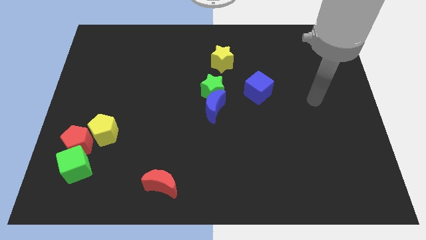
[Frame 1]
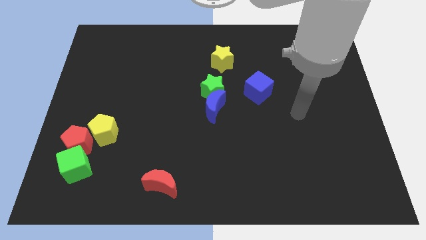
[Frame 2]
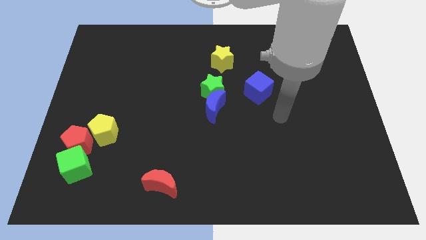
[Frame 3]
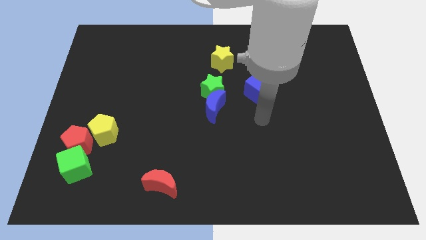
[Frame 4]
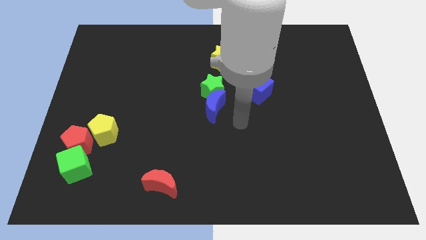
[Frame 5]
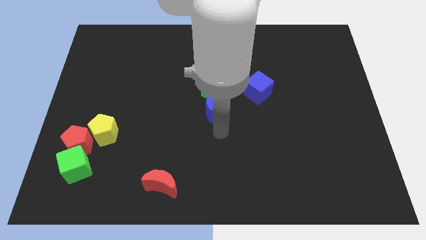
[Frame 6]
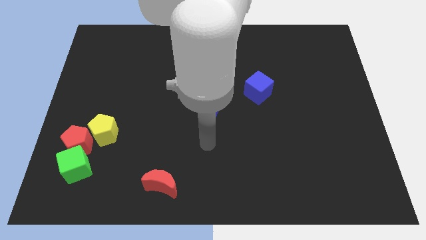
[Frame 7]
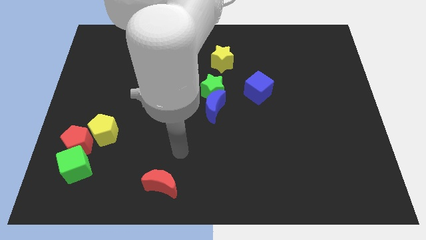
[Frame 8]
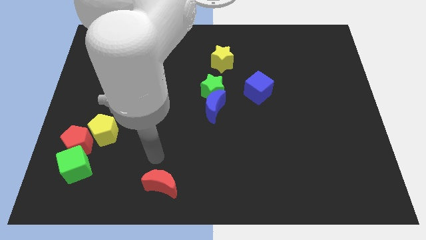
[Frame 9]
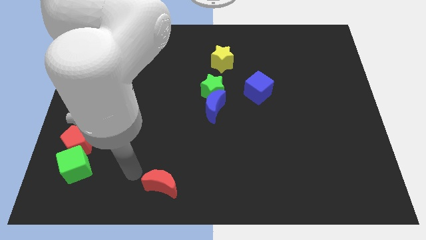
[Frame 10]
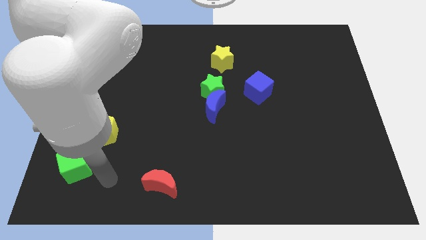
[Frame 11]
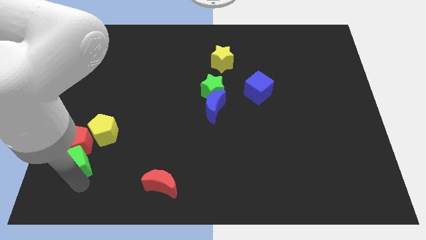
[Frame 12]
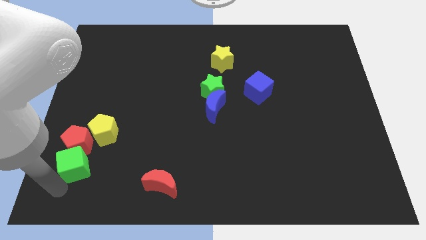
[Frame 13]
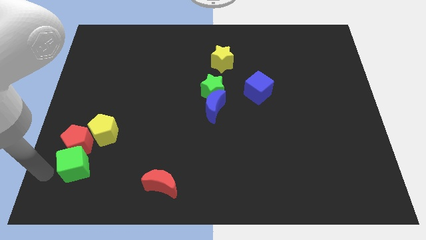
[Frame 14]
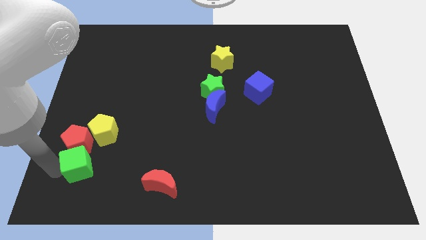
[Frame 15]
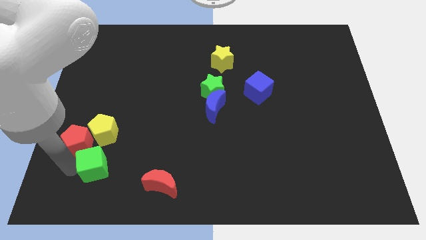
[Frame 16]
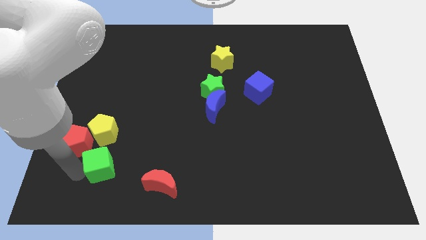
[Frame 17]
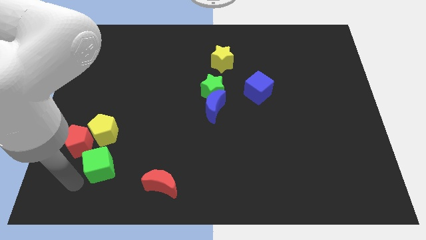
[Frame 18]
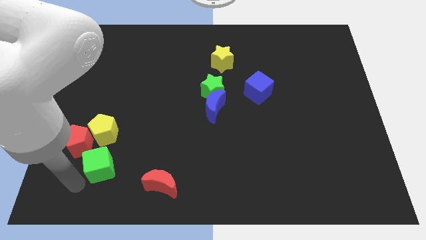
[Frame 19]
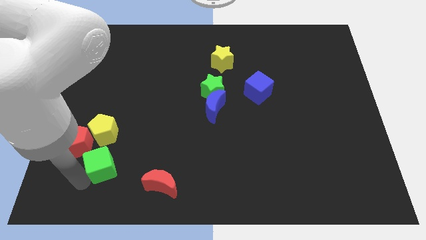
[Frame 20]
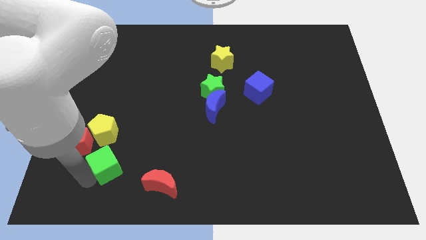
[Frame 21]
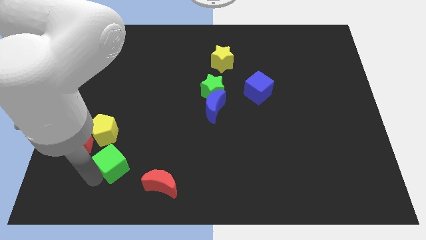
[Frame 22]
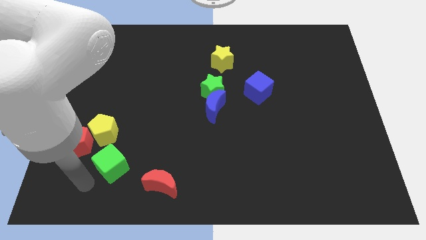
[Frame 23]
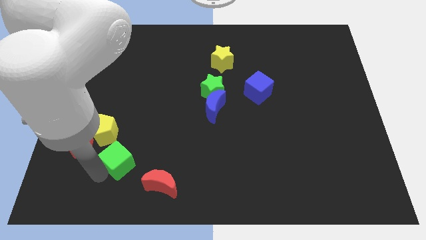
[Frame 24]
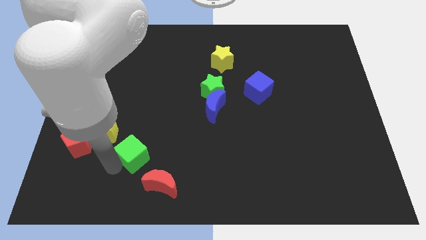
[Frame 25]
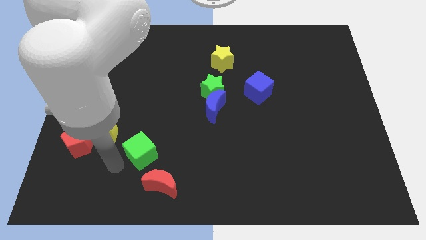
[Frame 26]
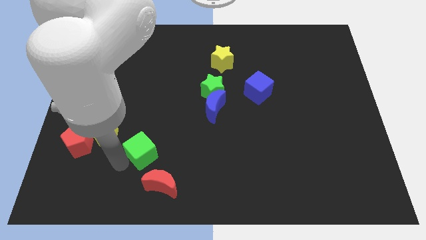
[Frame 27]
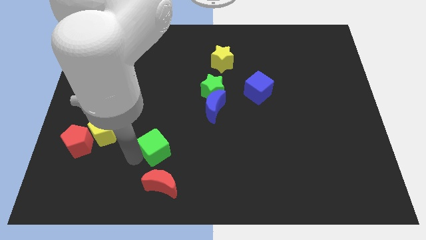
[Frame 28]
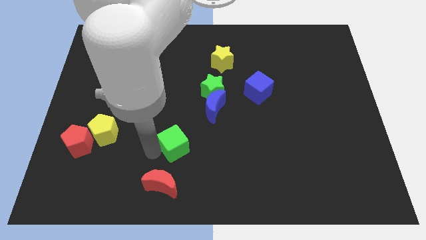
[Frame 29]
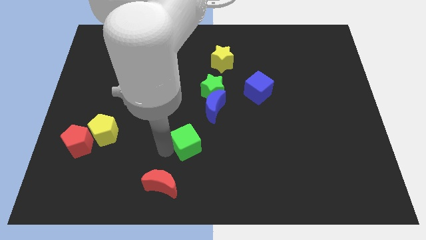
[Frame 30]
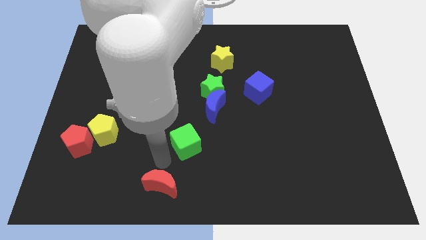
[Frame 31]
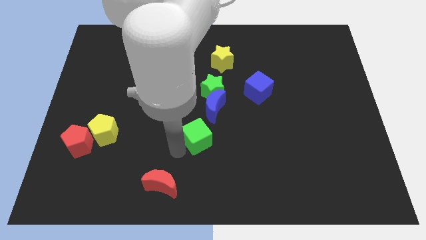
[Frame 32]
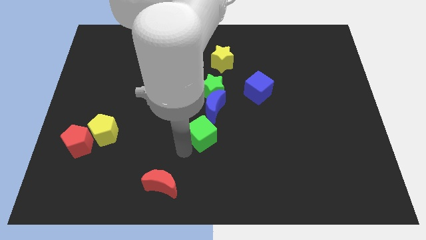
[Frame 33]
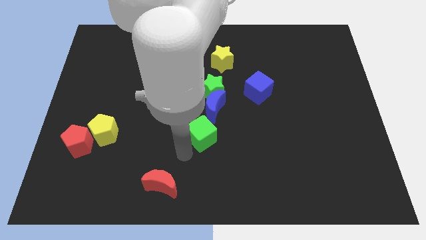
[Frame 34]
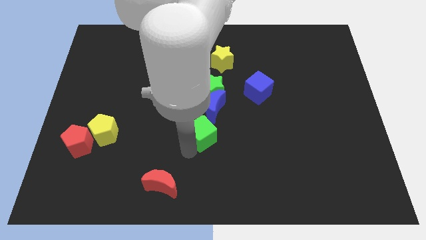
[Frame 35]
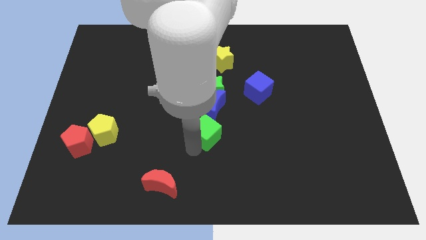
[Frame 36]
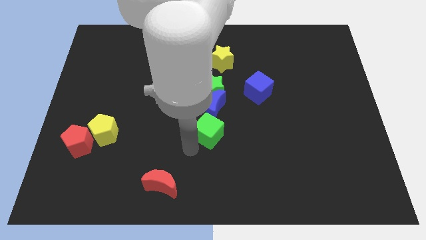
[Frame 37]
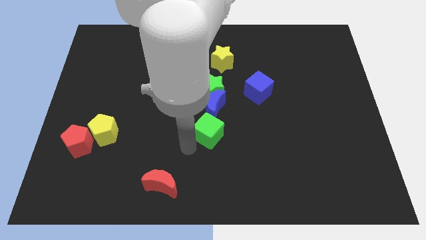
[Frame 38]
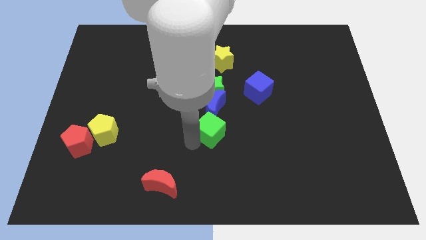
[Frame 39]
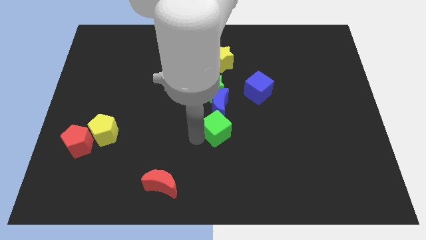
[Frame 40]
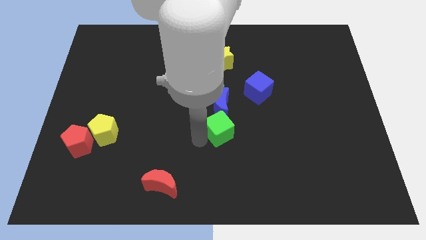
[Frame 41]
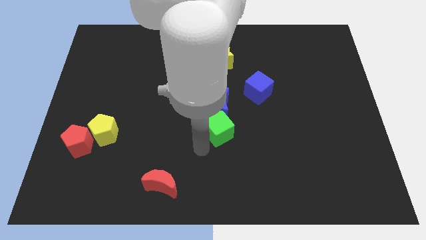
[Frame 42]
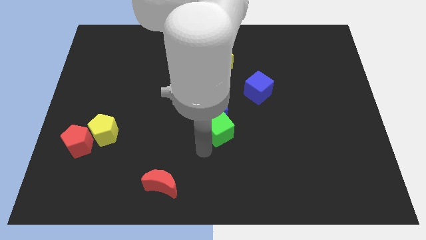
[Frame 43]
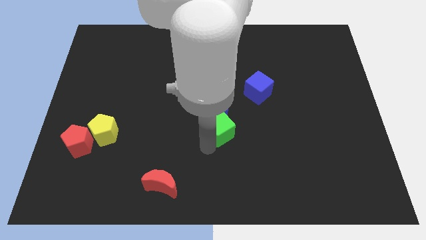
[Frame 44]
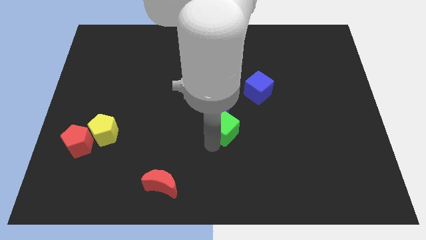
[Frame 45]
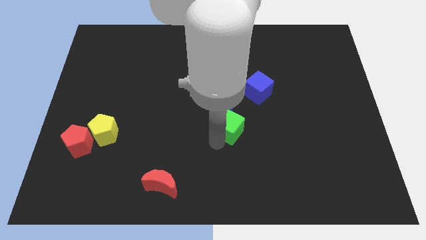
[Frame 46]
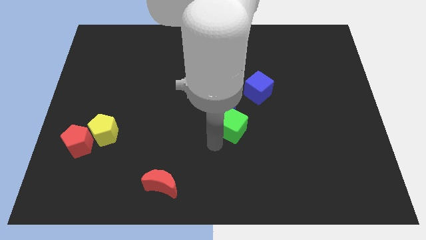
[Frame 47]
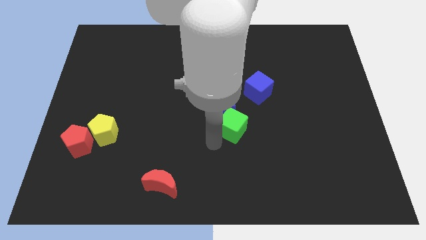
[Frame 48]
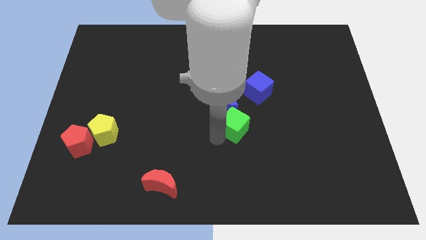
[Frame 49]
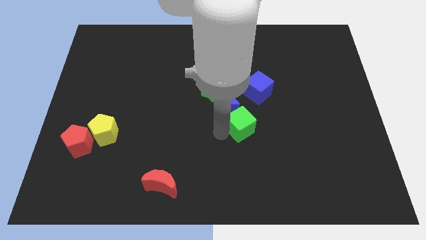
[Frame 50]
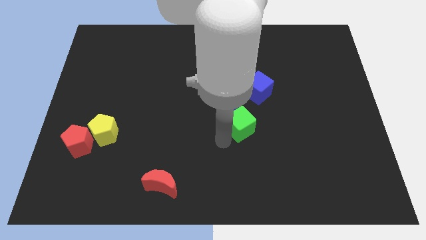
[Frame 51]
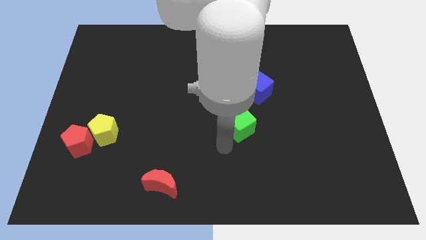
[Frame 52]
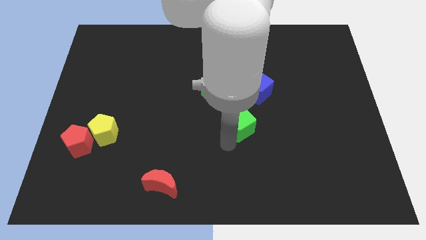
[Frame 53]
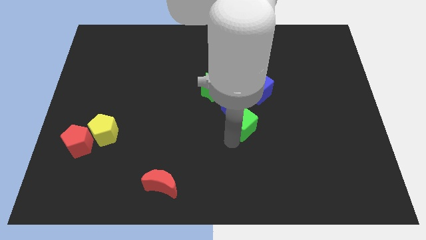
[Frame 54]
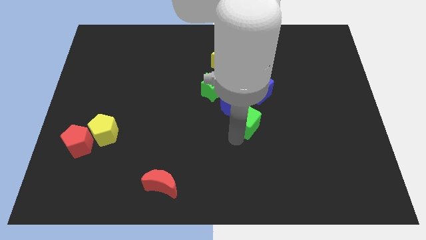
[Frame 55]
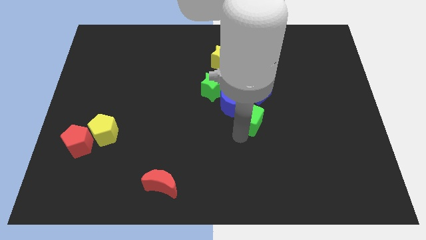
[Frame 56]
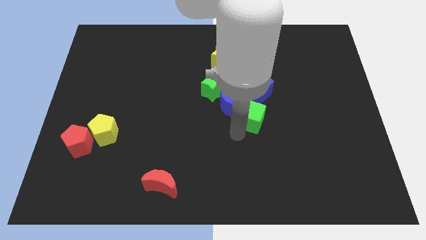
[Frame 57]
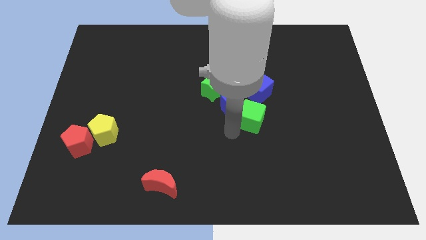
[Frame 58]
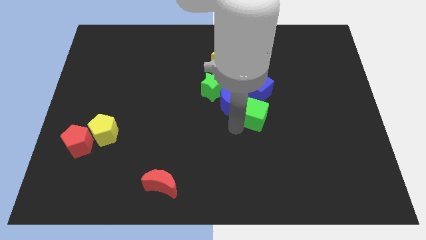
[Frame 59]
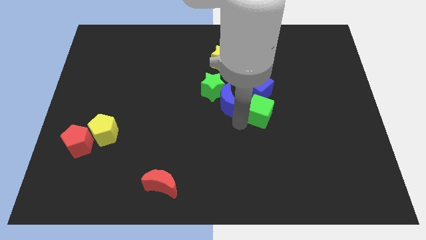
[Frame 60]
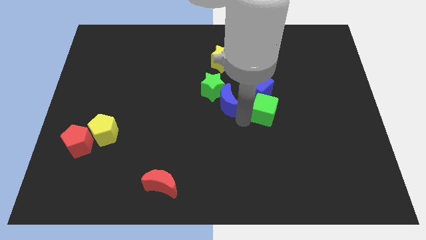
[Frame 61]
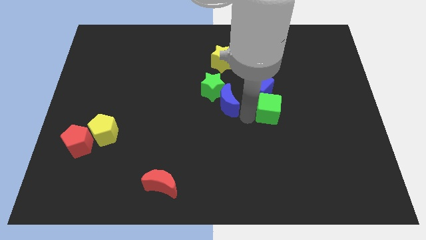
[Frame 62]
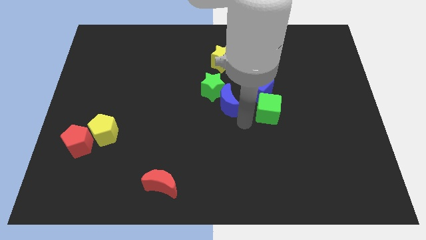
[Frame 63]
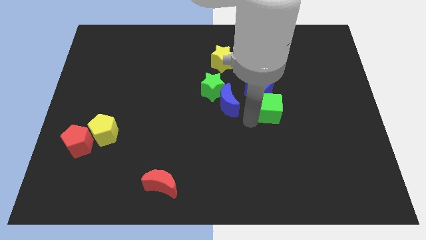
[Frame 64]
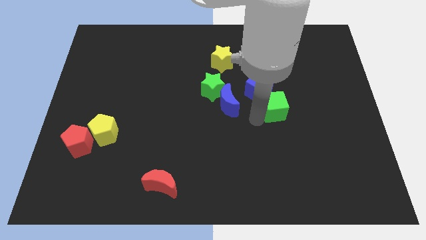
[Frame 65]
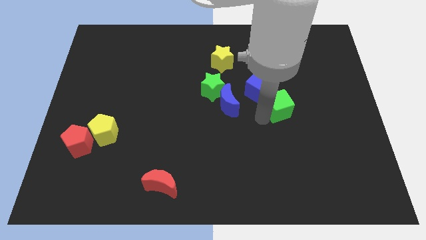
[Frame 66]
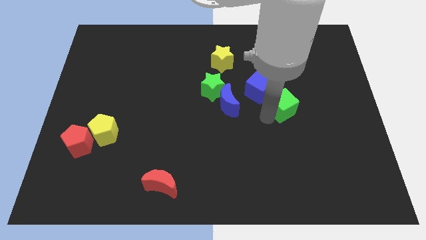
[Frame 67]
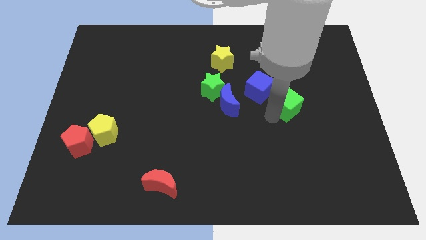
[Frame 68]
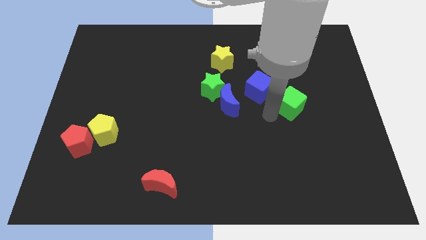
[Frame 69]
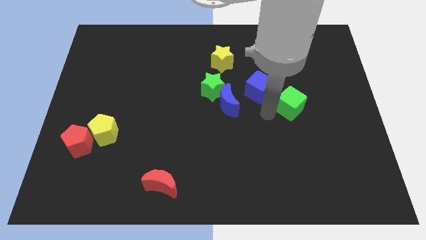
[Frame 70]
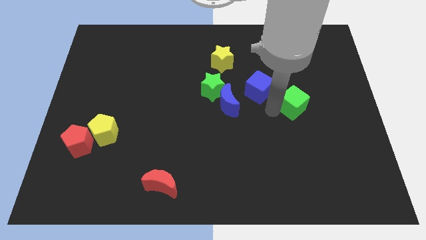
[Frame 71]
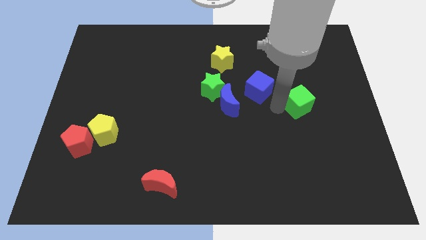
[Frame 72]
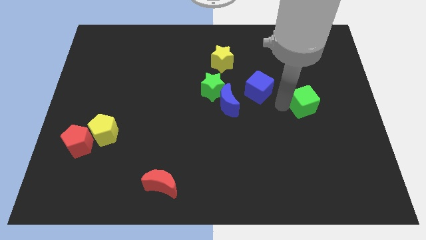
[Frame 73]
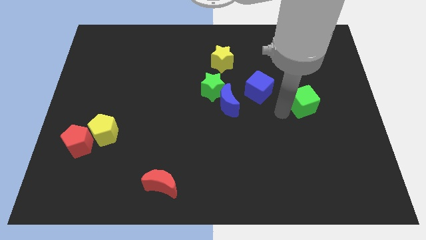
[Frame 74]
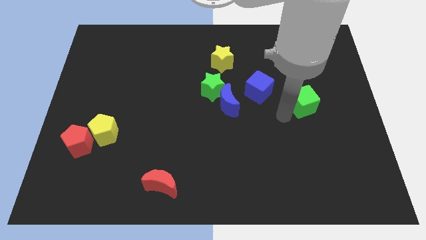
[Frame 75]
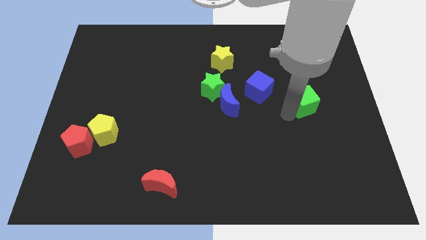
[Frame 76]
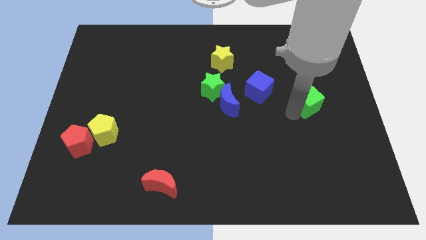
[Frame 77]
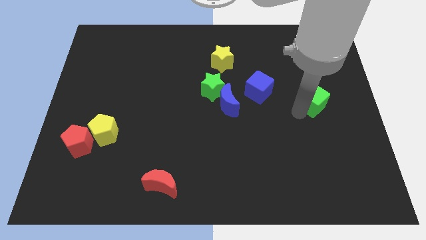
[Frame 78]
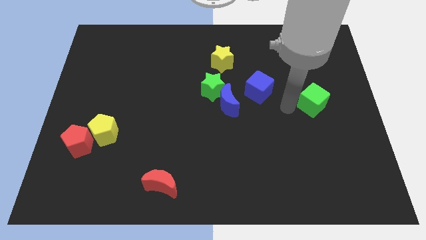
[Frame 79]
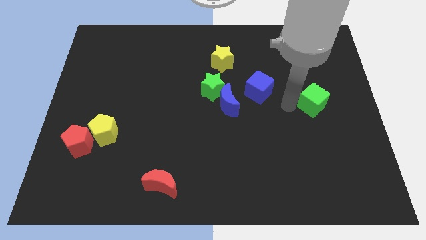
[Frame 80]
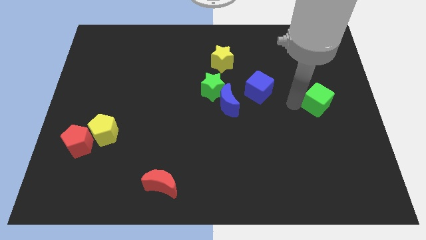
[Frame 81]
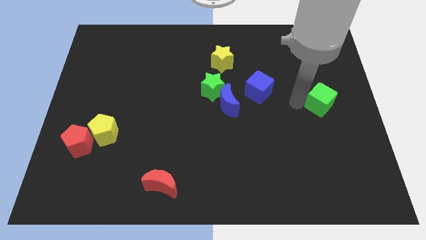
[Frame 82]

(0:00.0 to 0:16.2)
move the green cube to the right side of the board
